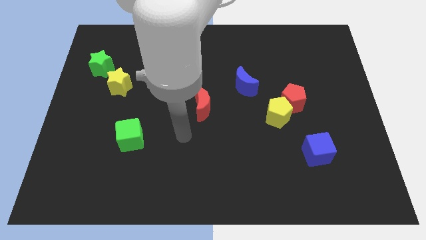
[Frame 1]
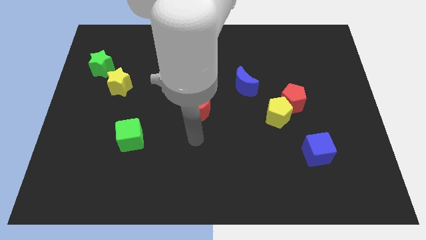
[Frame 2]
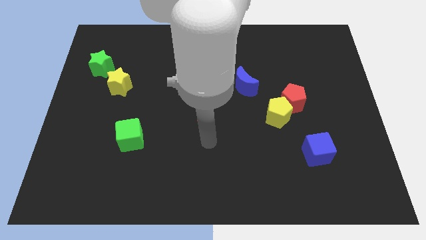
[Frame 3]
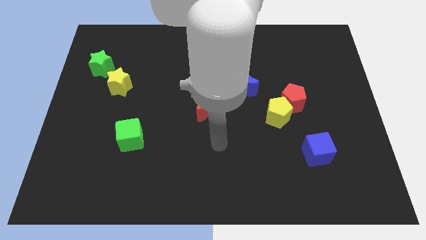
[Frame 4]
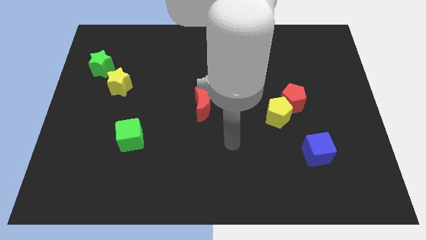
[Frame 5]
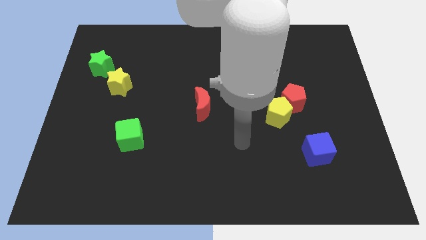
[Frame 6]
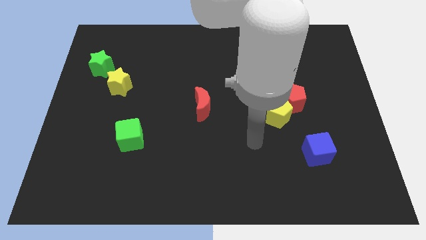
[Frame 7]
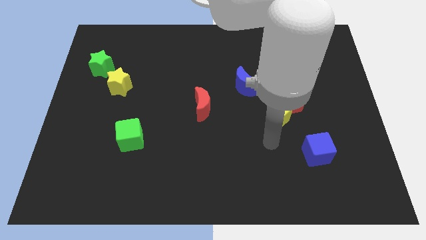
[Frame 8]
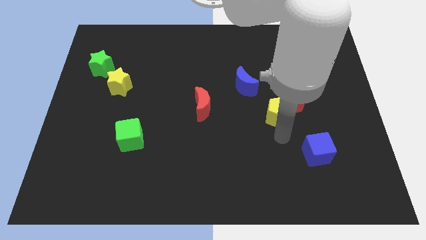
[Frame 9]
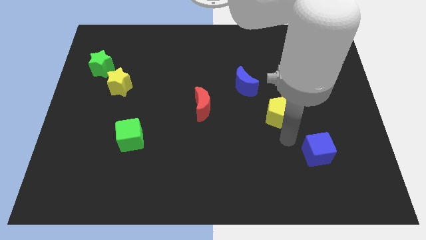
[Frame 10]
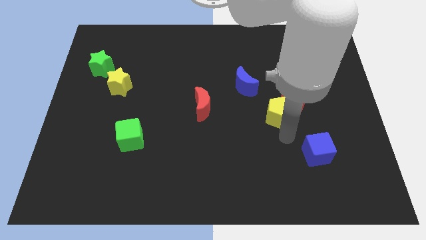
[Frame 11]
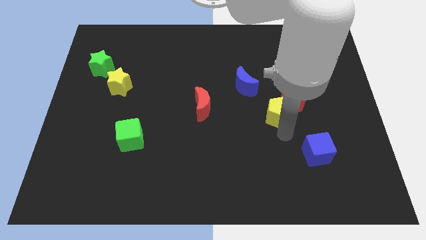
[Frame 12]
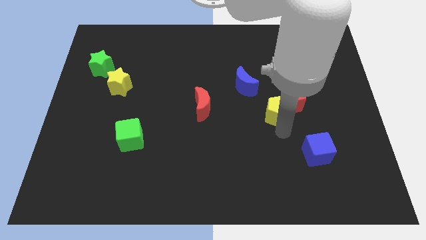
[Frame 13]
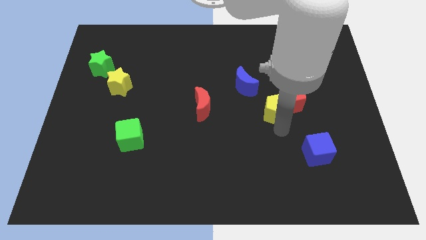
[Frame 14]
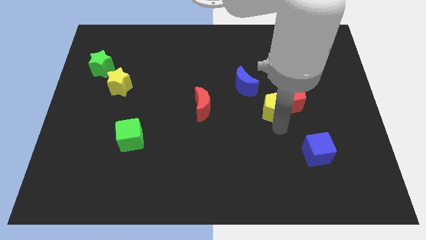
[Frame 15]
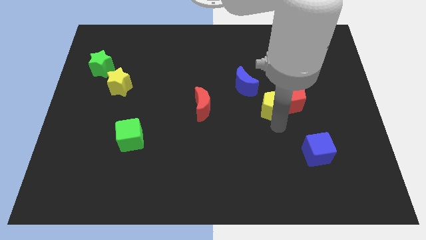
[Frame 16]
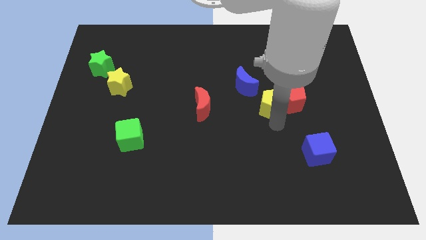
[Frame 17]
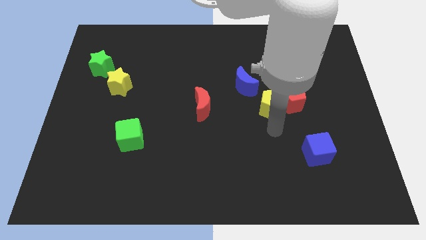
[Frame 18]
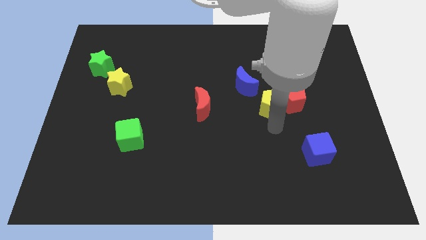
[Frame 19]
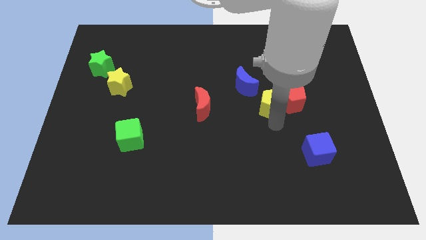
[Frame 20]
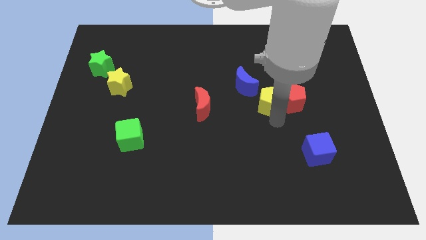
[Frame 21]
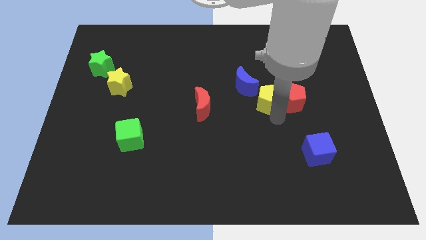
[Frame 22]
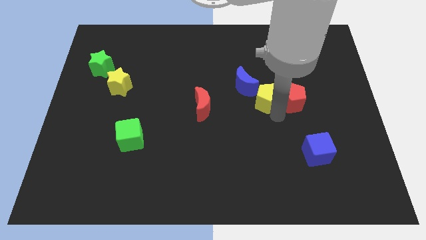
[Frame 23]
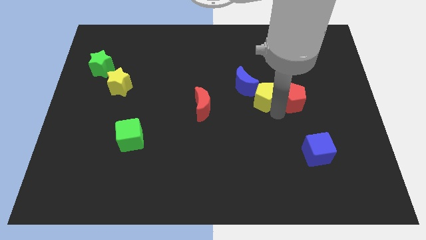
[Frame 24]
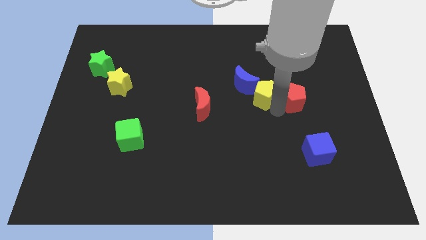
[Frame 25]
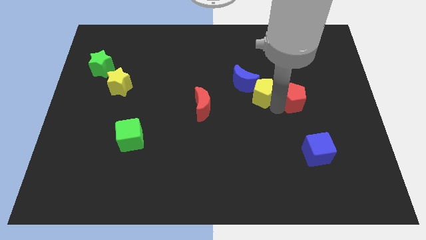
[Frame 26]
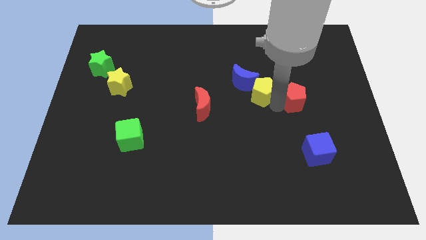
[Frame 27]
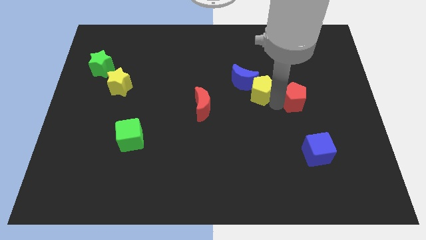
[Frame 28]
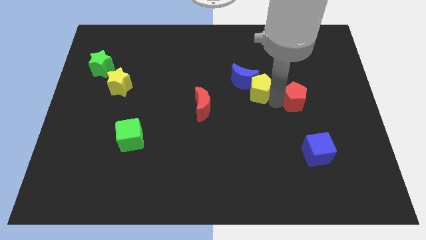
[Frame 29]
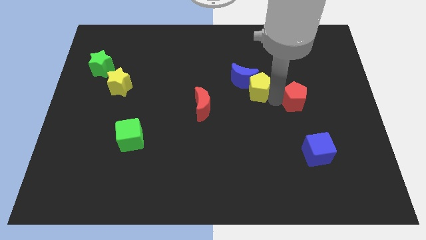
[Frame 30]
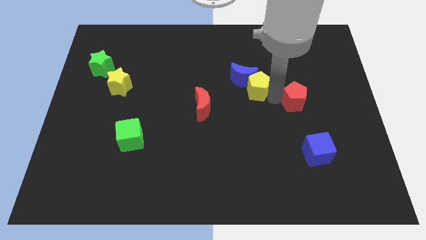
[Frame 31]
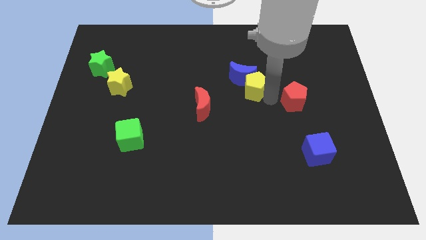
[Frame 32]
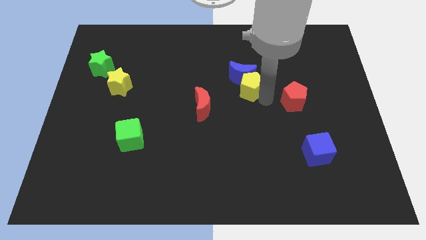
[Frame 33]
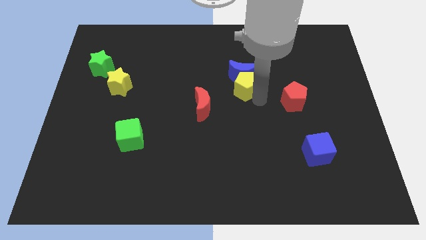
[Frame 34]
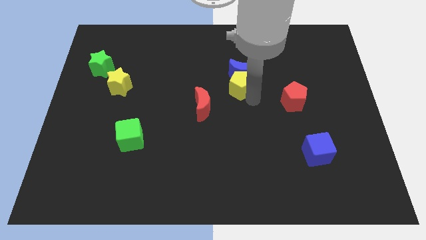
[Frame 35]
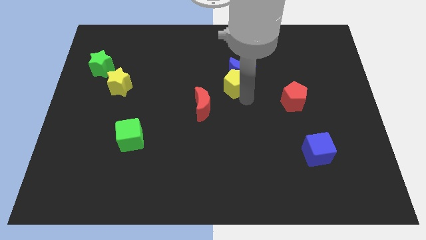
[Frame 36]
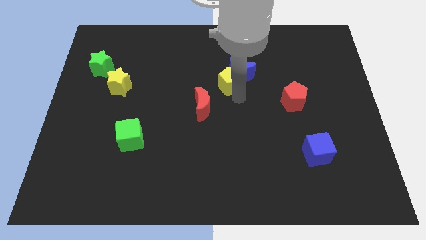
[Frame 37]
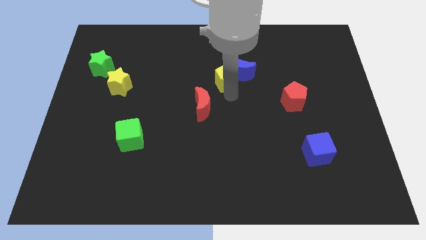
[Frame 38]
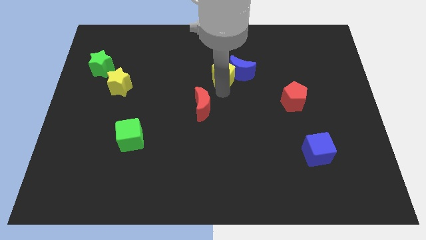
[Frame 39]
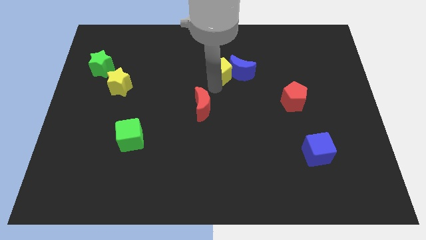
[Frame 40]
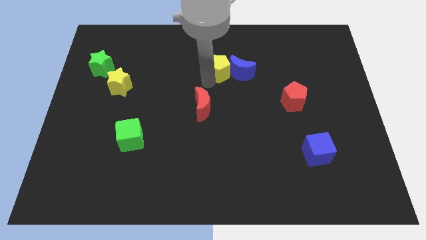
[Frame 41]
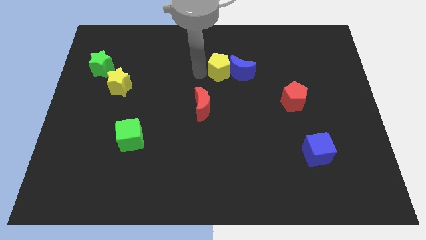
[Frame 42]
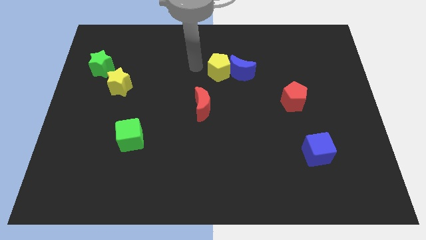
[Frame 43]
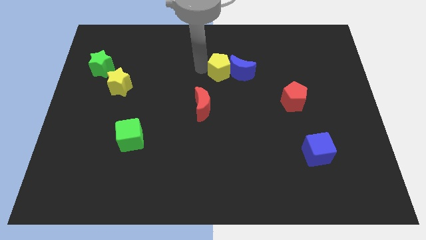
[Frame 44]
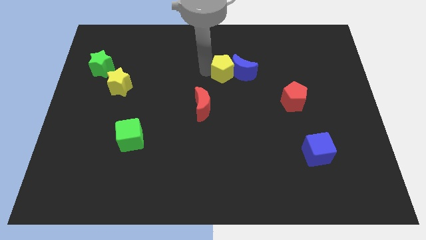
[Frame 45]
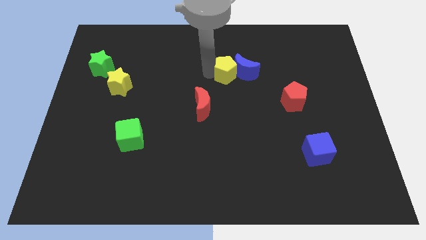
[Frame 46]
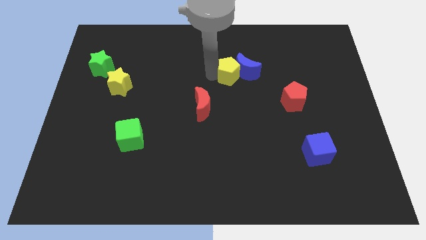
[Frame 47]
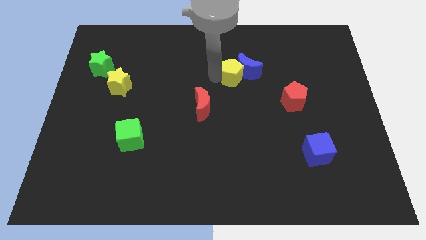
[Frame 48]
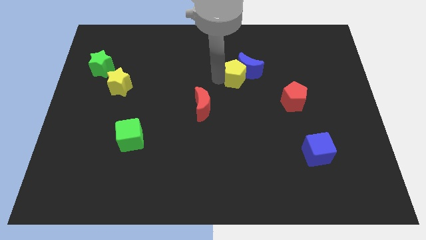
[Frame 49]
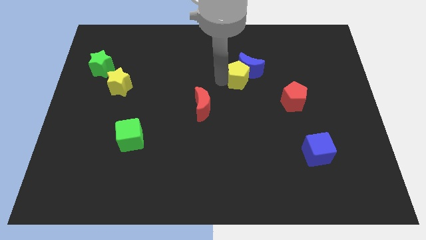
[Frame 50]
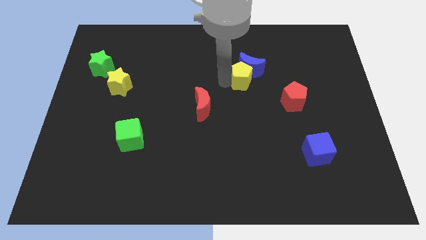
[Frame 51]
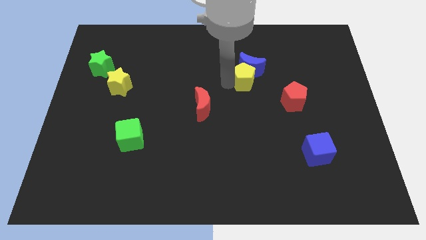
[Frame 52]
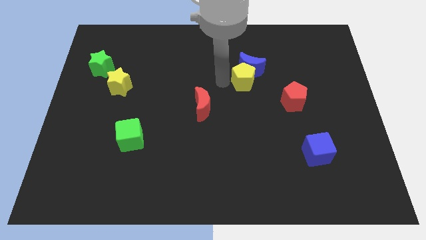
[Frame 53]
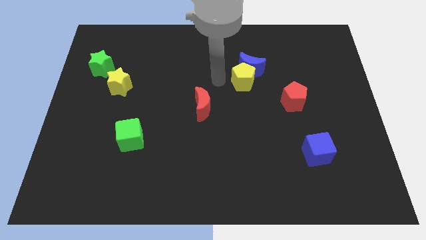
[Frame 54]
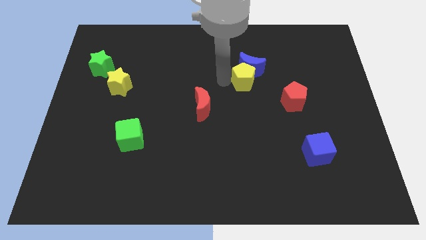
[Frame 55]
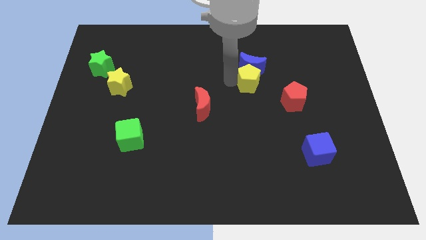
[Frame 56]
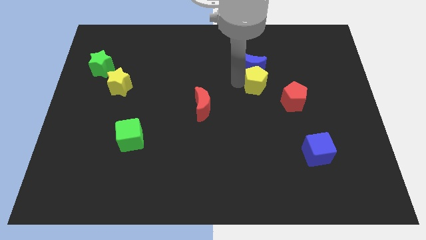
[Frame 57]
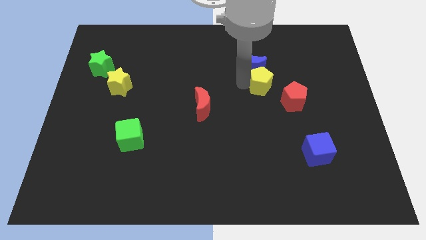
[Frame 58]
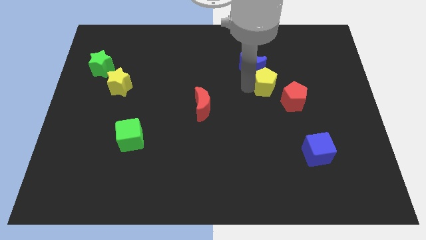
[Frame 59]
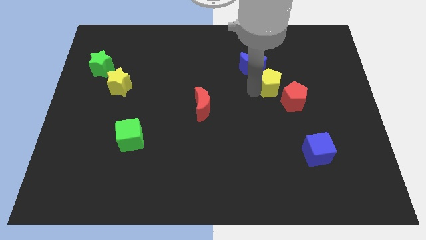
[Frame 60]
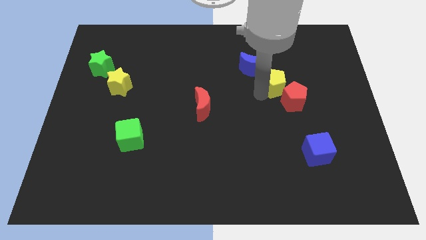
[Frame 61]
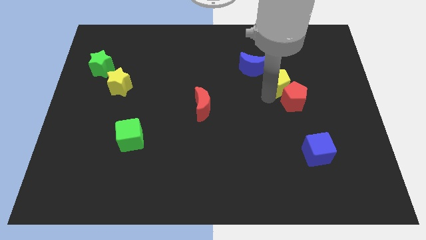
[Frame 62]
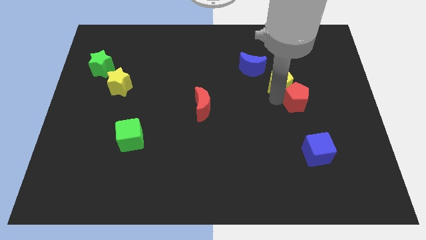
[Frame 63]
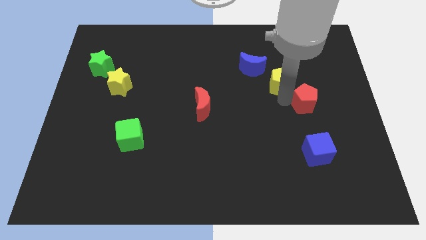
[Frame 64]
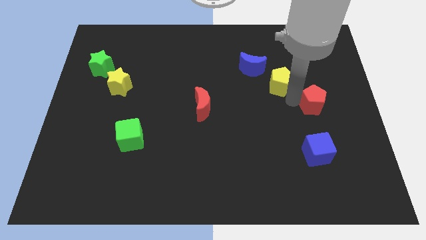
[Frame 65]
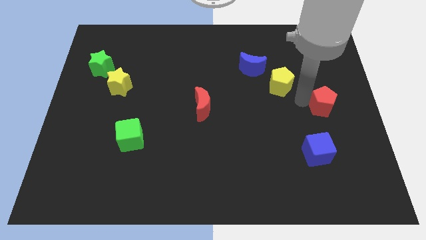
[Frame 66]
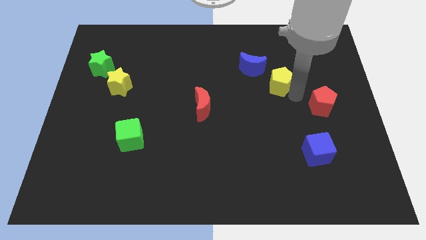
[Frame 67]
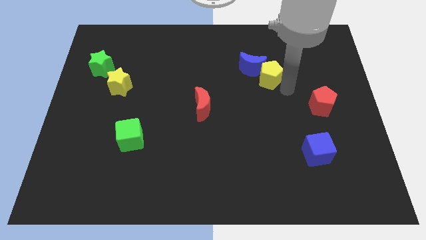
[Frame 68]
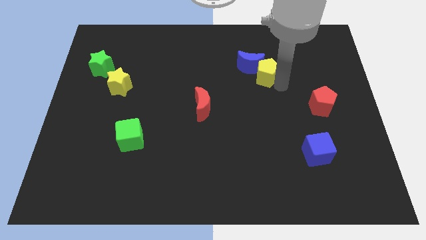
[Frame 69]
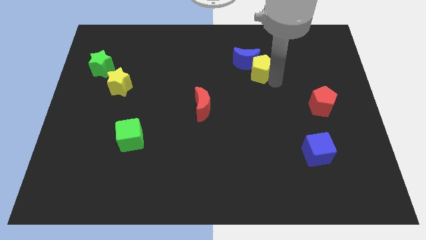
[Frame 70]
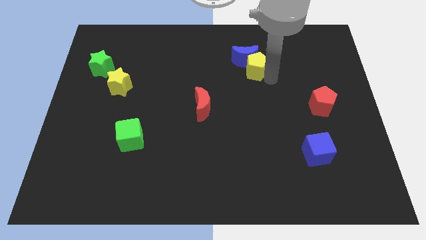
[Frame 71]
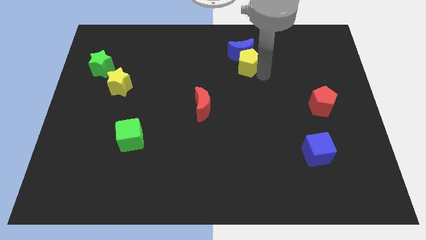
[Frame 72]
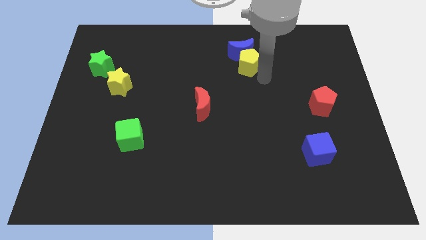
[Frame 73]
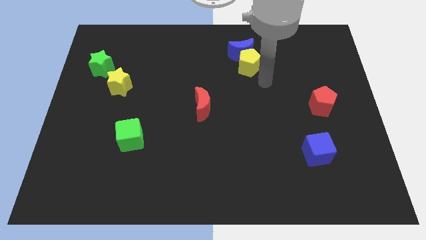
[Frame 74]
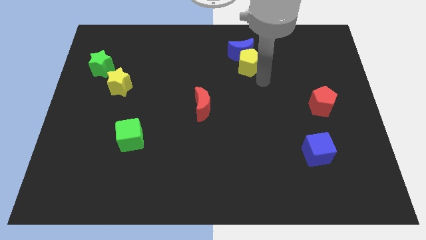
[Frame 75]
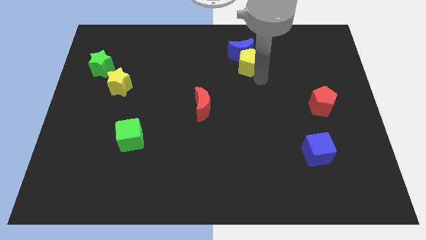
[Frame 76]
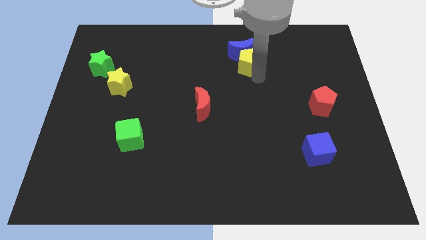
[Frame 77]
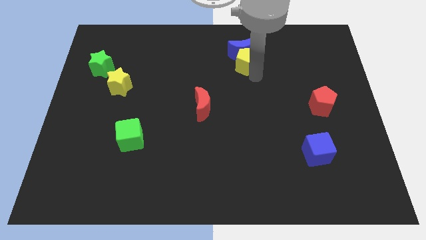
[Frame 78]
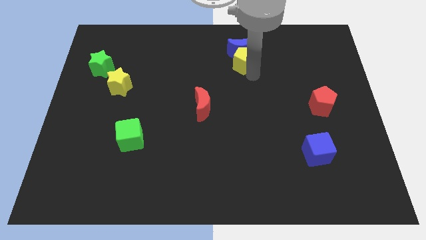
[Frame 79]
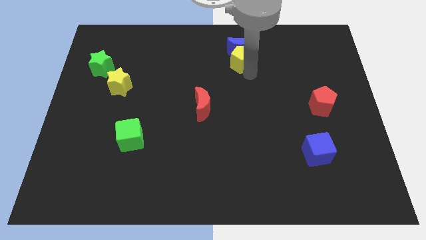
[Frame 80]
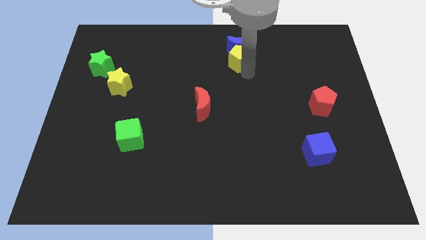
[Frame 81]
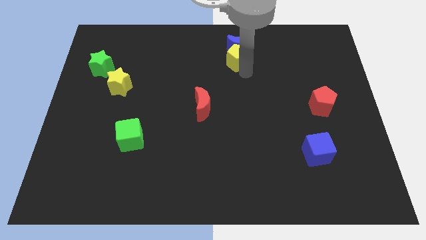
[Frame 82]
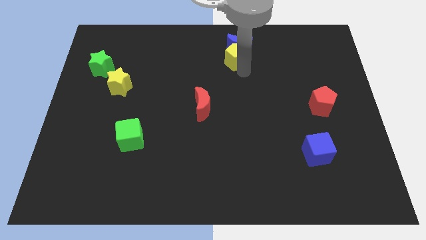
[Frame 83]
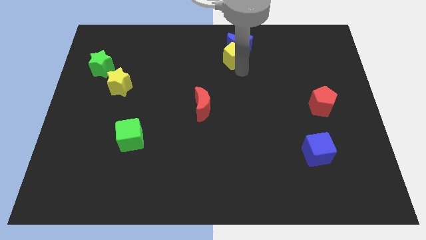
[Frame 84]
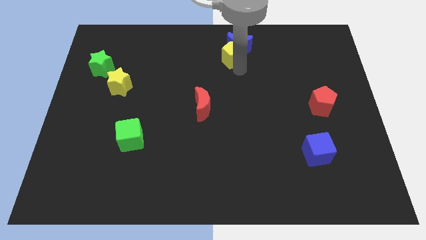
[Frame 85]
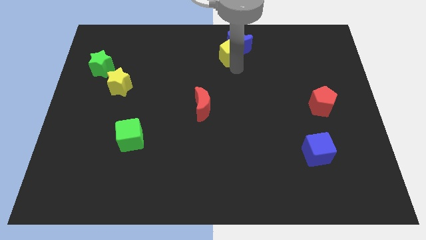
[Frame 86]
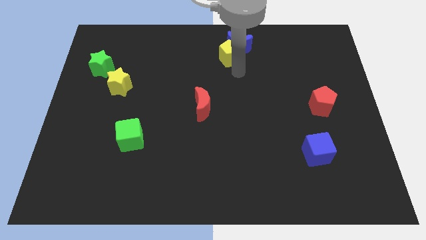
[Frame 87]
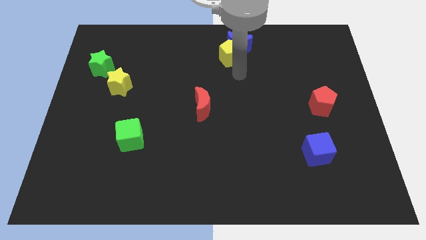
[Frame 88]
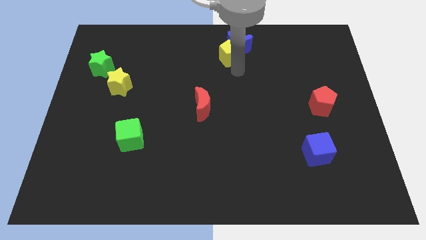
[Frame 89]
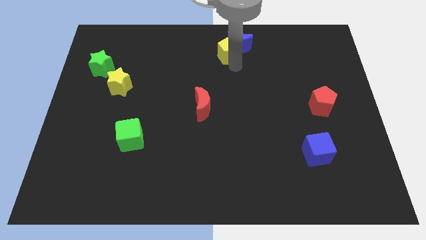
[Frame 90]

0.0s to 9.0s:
put the yellow pentagon to the top side
